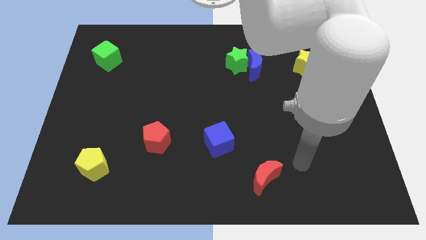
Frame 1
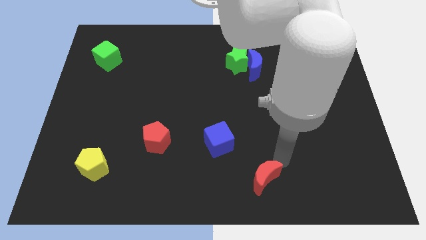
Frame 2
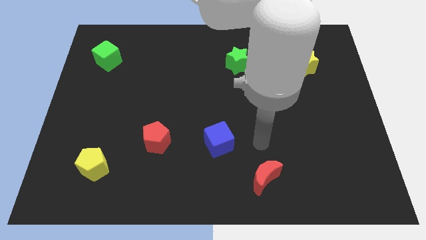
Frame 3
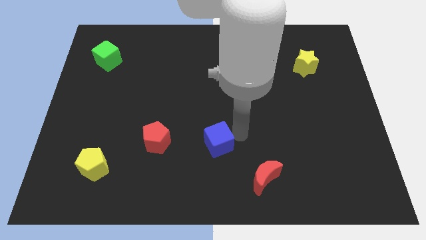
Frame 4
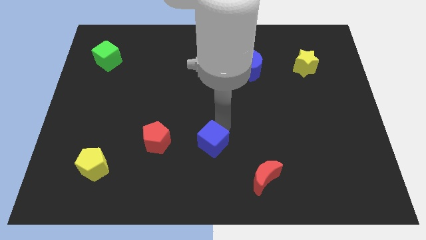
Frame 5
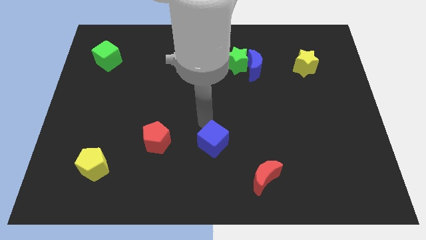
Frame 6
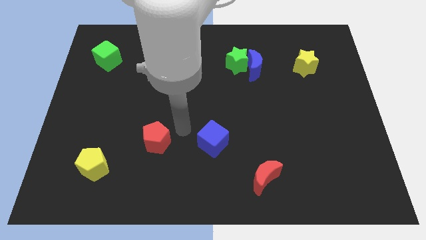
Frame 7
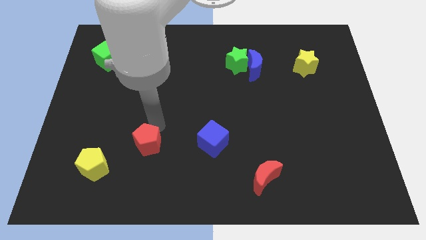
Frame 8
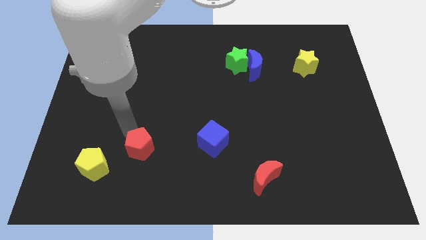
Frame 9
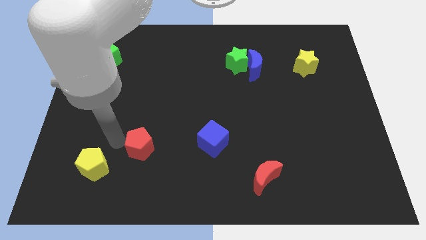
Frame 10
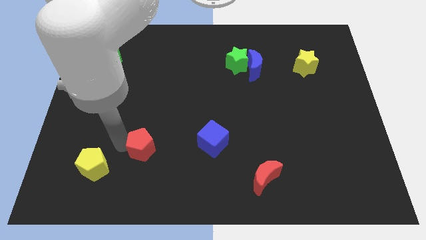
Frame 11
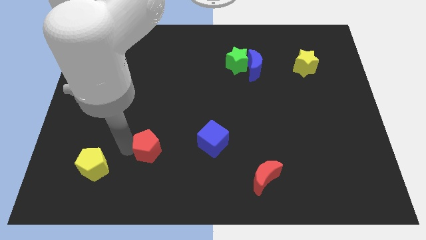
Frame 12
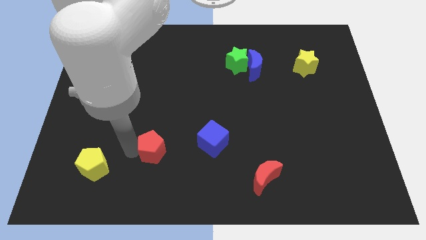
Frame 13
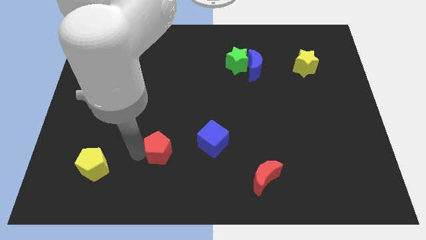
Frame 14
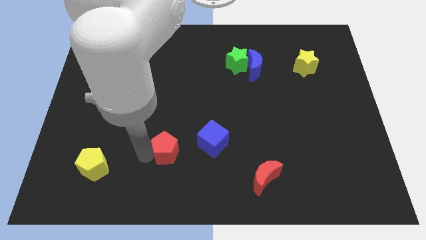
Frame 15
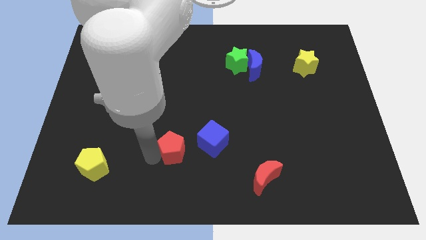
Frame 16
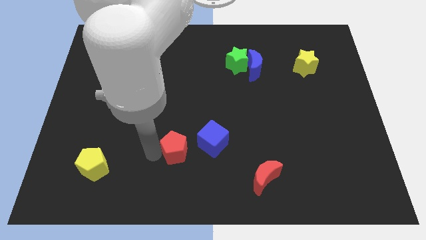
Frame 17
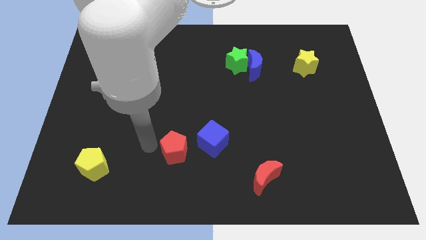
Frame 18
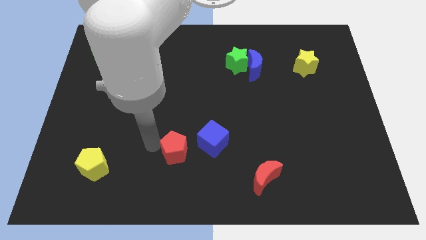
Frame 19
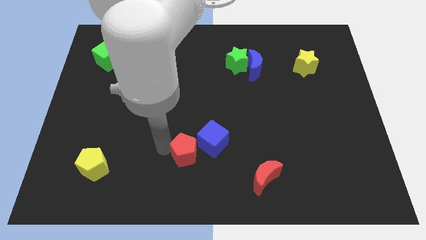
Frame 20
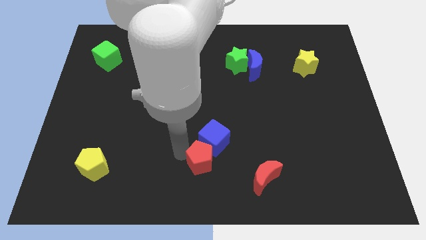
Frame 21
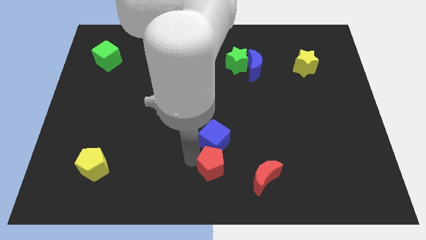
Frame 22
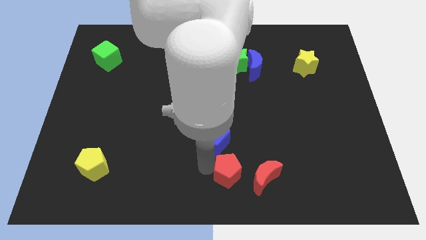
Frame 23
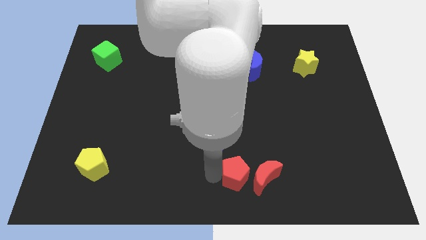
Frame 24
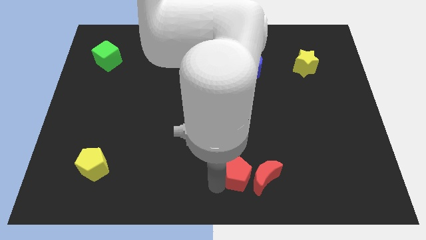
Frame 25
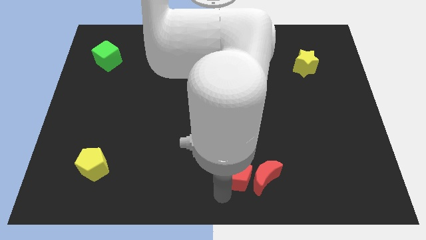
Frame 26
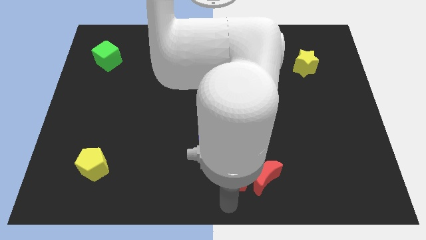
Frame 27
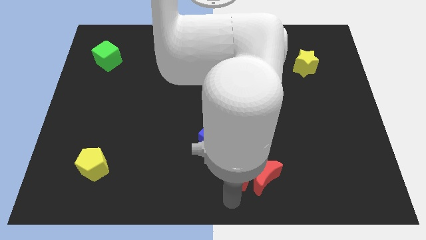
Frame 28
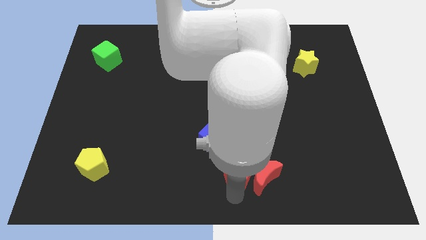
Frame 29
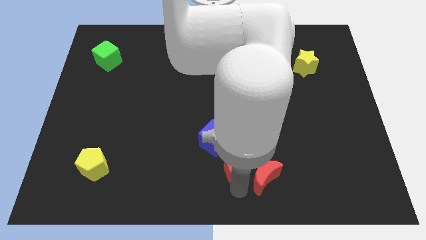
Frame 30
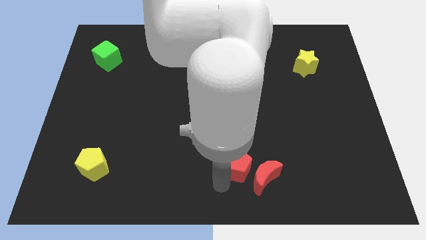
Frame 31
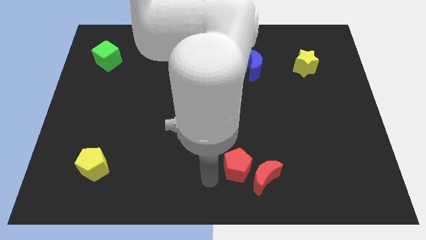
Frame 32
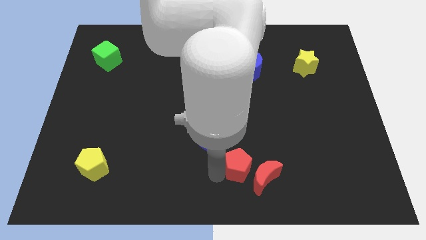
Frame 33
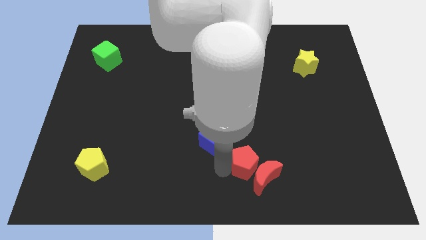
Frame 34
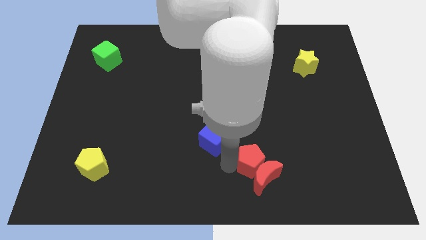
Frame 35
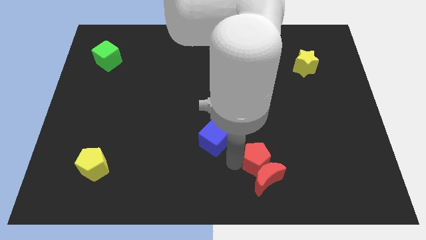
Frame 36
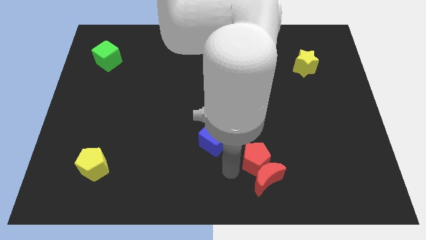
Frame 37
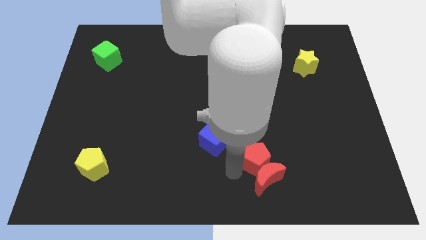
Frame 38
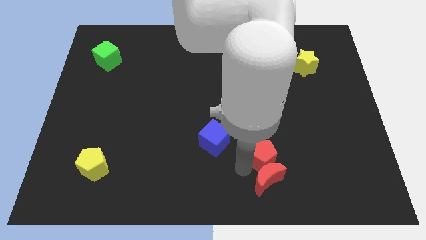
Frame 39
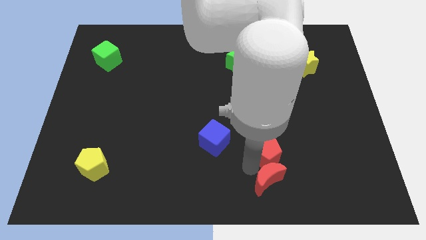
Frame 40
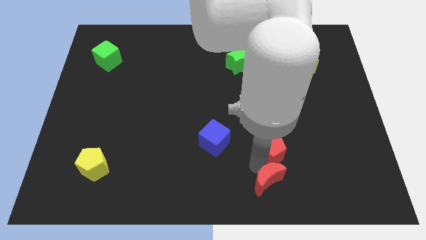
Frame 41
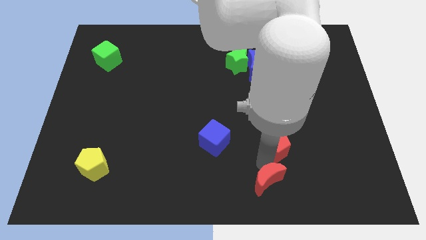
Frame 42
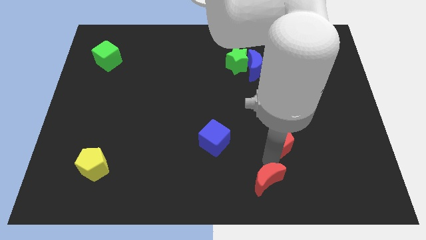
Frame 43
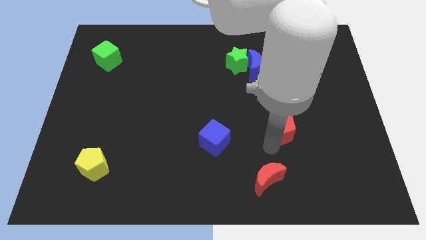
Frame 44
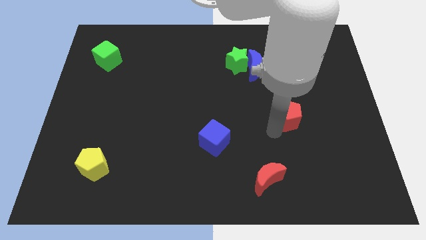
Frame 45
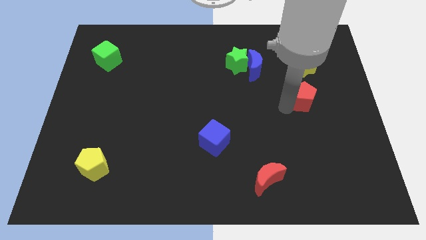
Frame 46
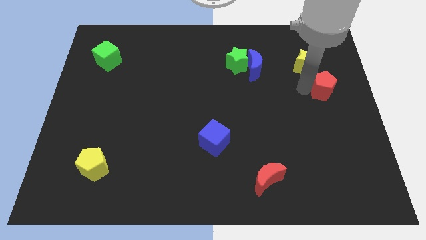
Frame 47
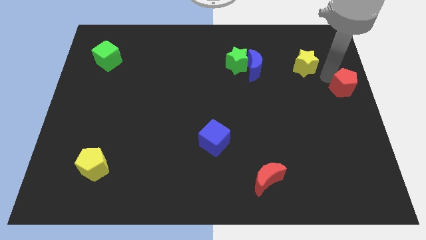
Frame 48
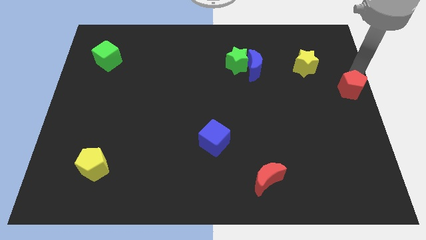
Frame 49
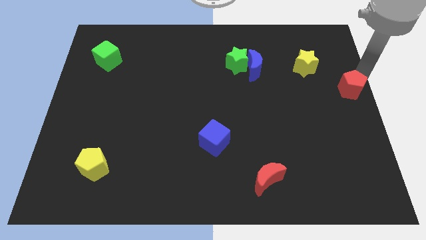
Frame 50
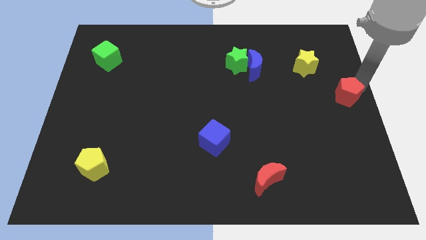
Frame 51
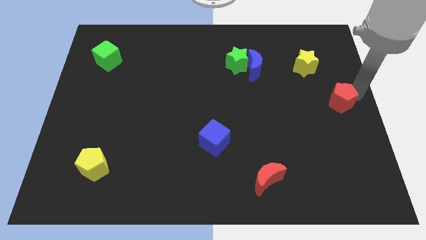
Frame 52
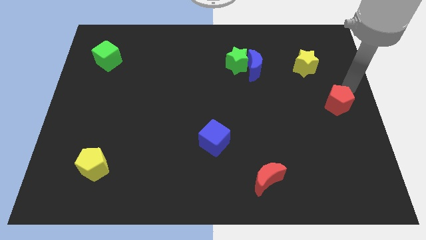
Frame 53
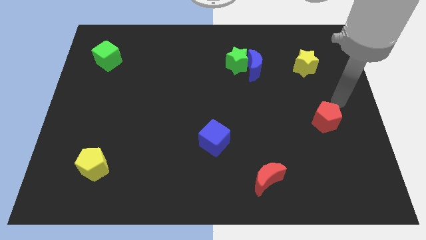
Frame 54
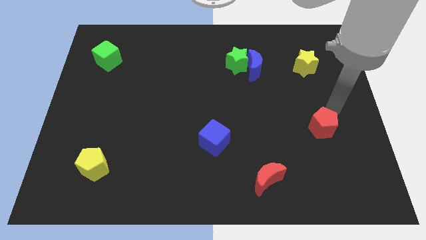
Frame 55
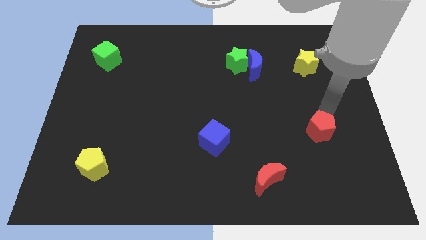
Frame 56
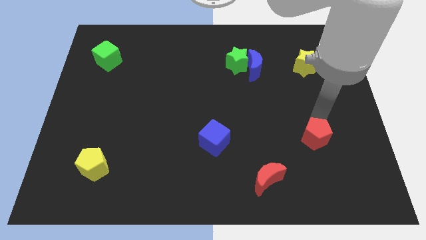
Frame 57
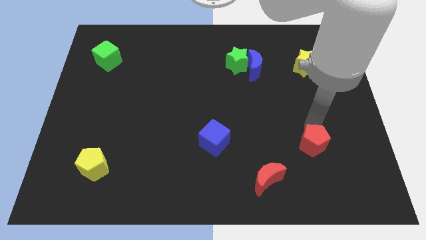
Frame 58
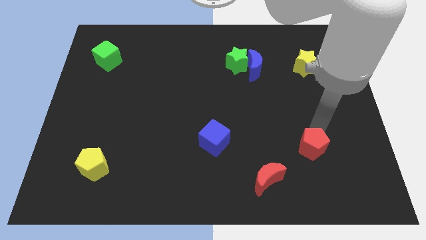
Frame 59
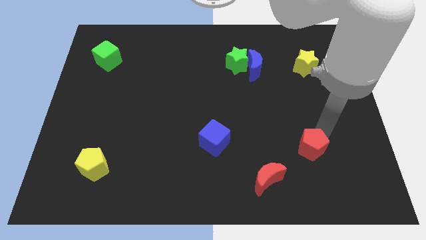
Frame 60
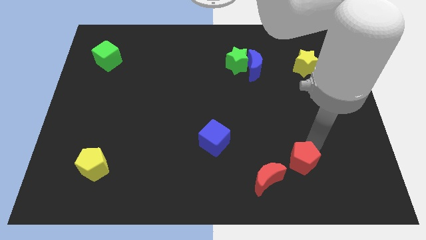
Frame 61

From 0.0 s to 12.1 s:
put the red pentagon just right of the red moon

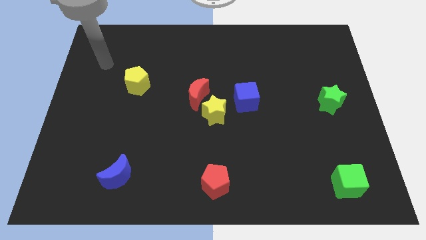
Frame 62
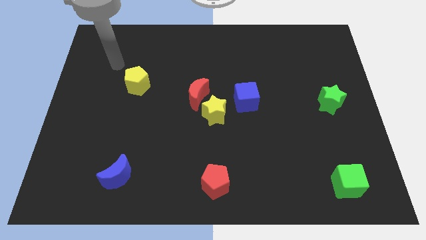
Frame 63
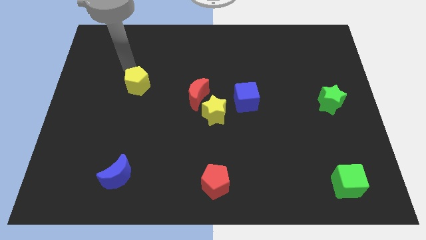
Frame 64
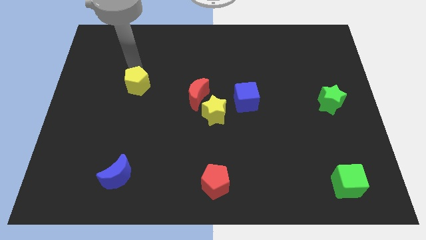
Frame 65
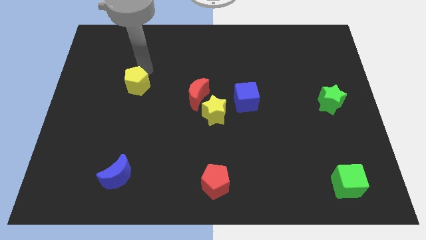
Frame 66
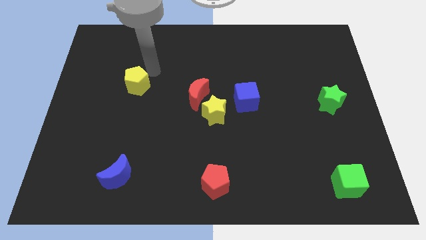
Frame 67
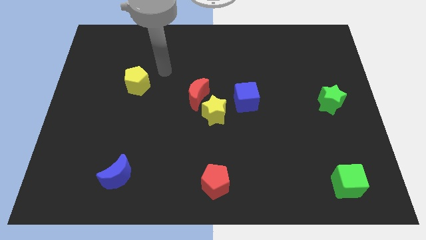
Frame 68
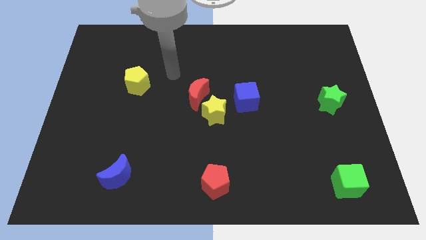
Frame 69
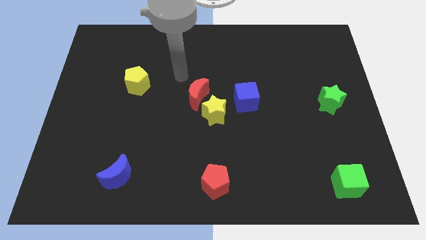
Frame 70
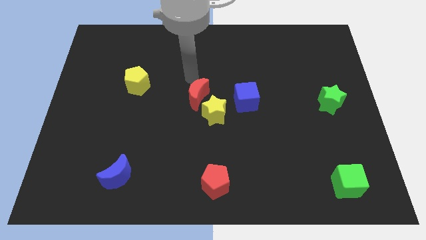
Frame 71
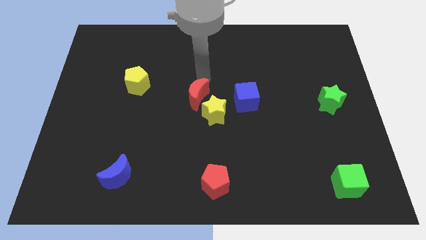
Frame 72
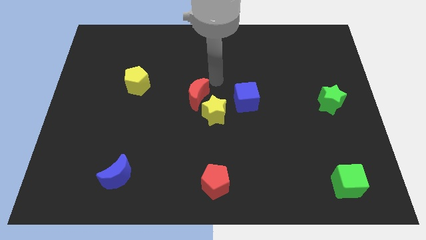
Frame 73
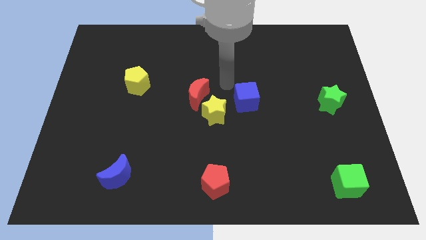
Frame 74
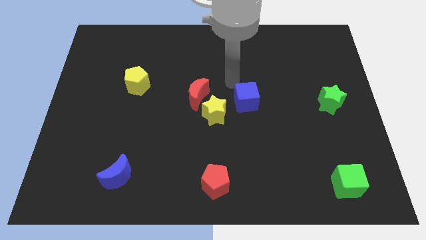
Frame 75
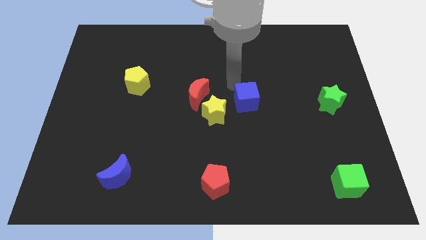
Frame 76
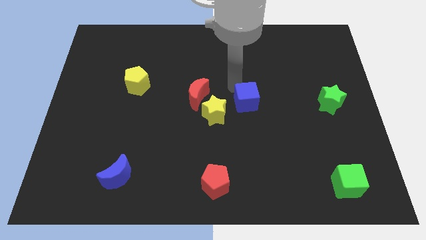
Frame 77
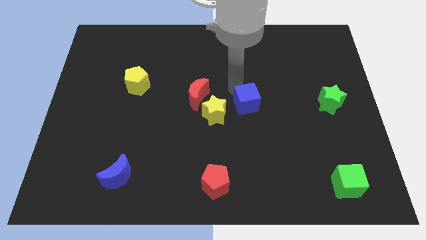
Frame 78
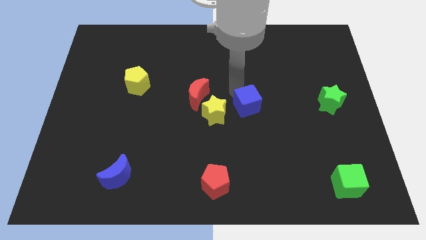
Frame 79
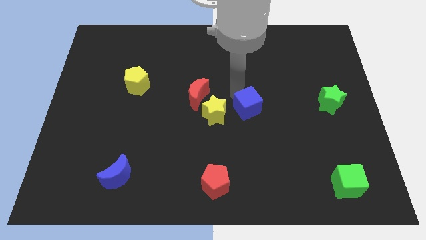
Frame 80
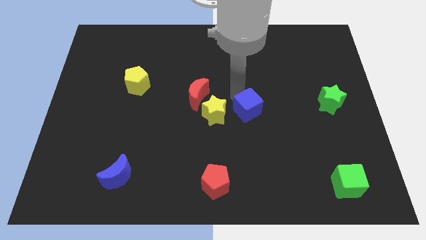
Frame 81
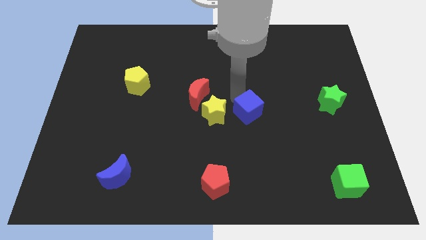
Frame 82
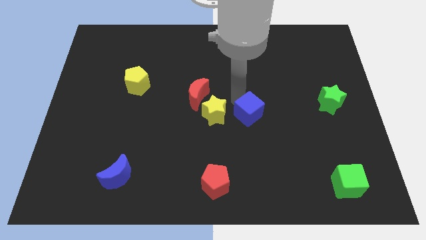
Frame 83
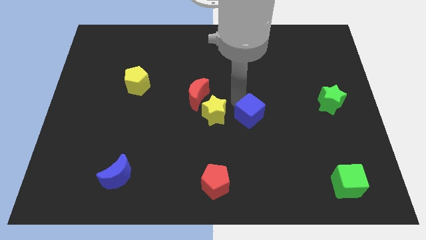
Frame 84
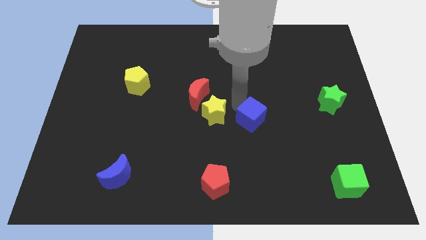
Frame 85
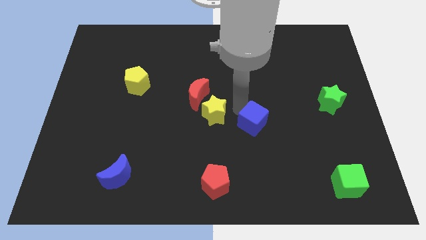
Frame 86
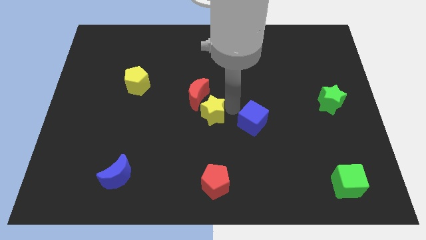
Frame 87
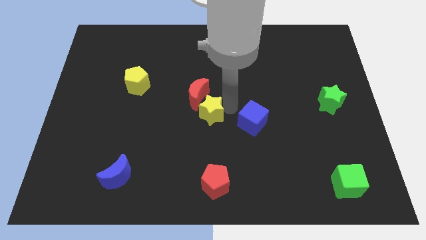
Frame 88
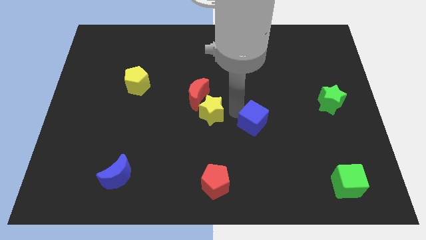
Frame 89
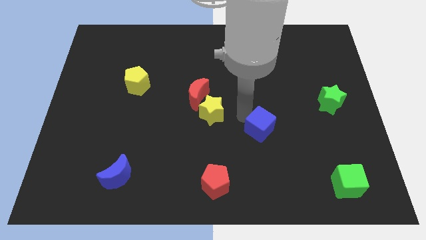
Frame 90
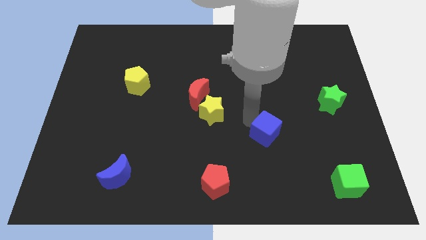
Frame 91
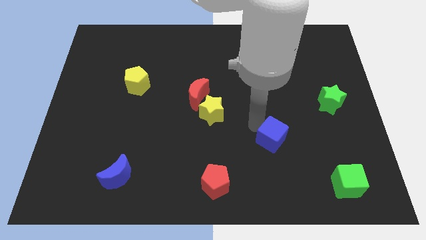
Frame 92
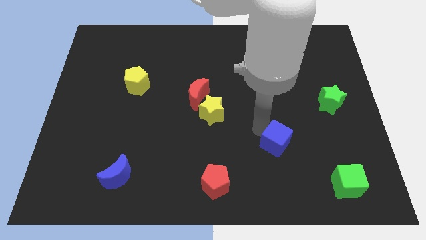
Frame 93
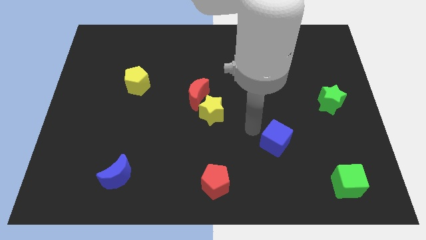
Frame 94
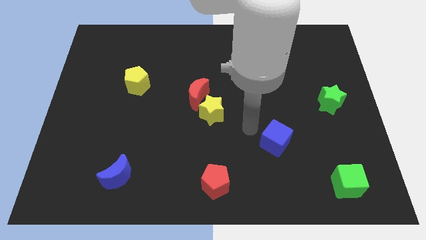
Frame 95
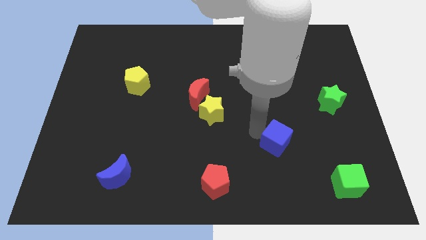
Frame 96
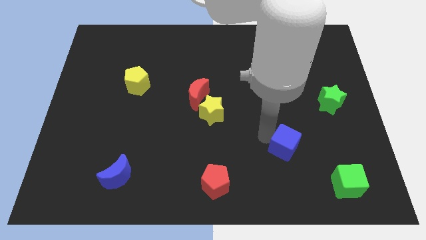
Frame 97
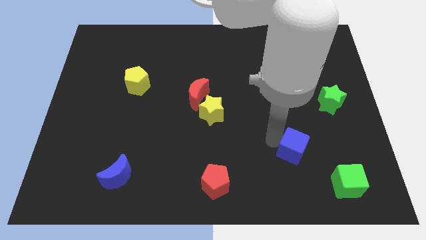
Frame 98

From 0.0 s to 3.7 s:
slide the blue cube diagonally up and to the left of the green cube
